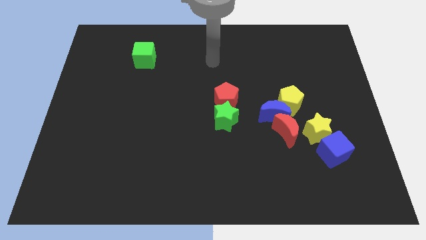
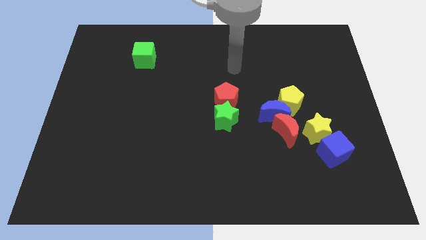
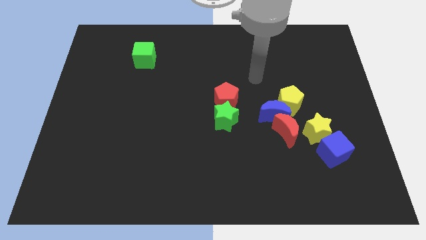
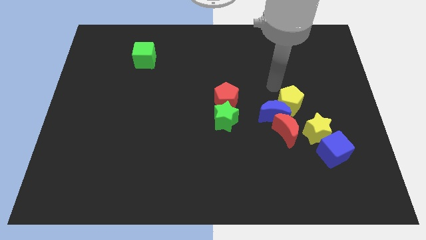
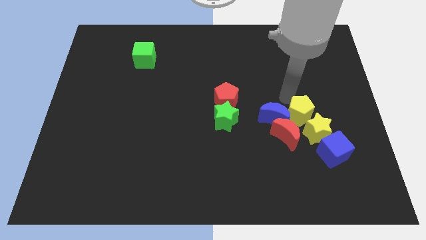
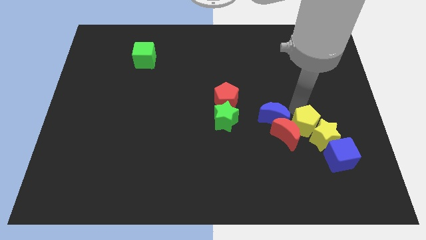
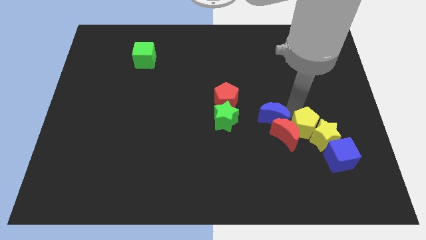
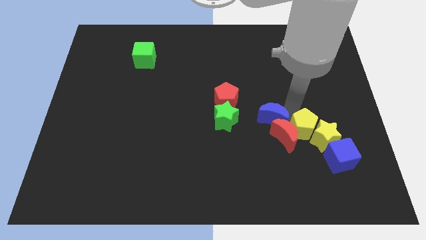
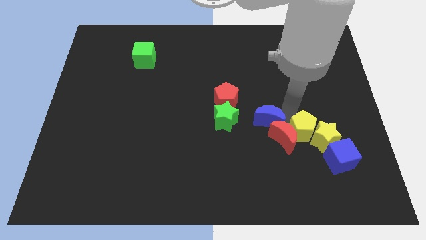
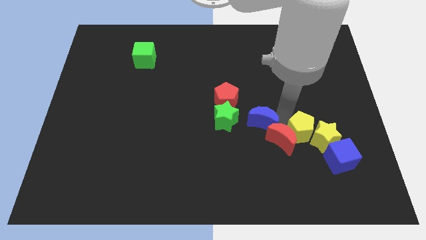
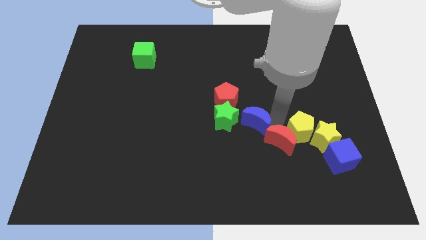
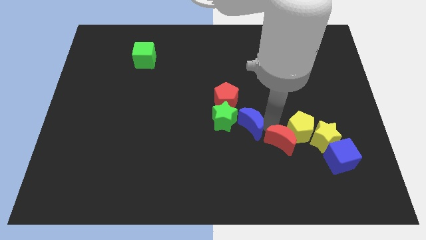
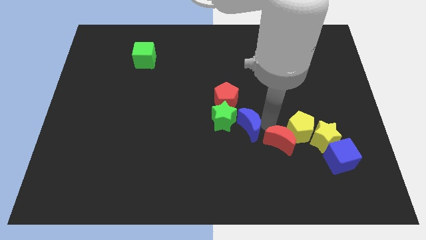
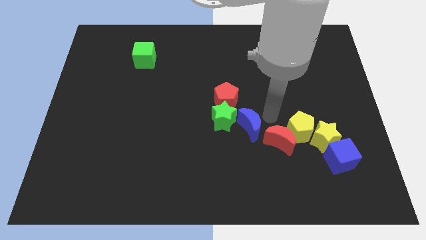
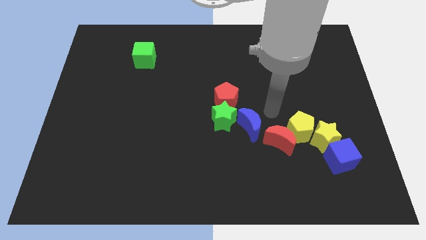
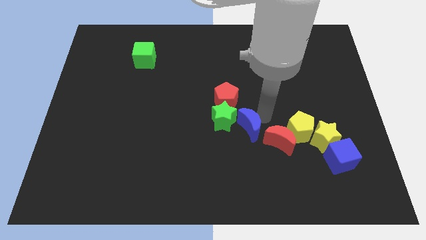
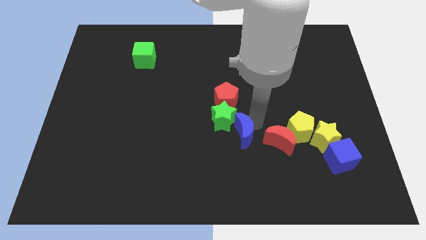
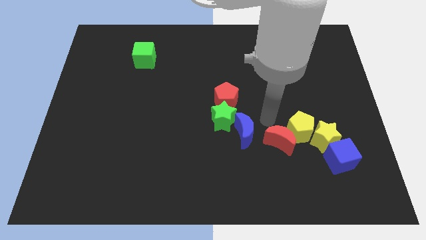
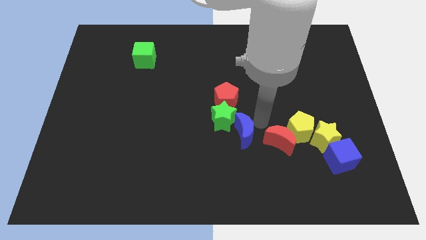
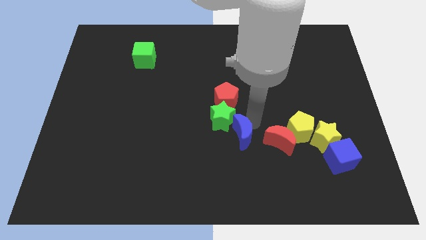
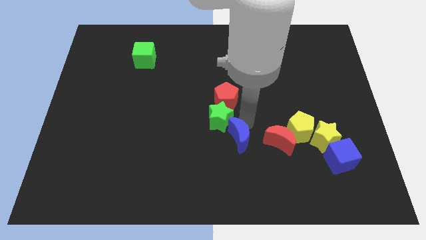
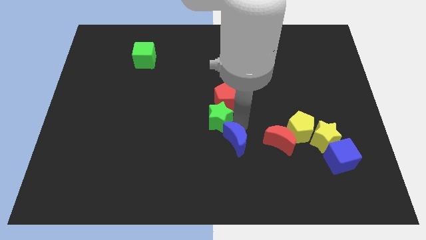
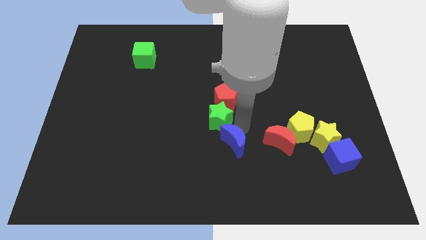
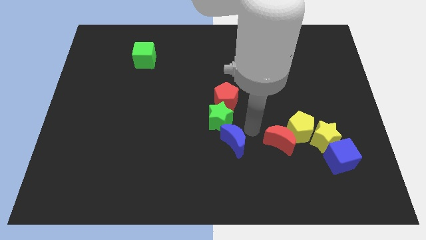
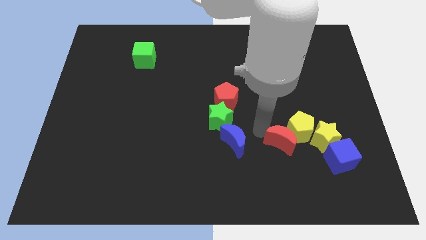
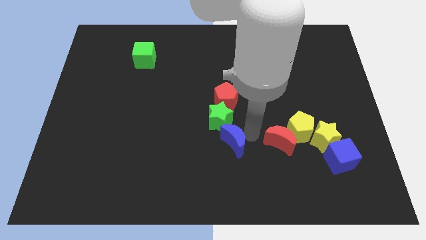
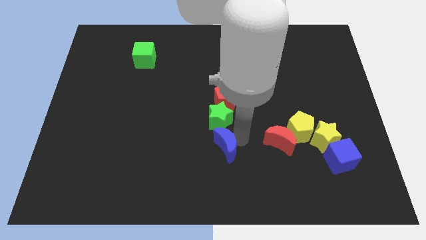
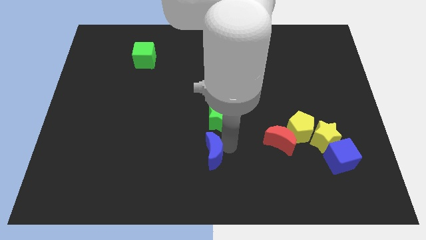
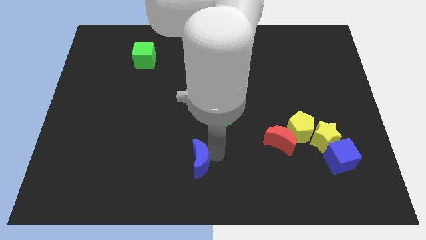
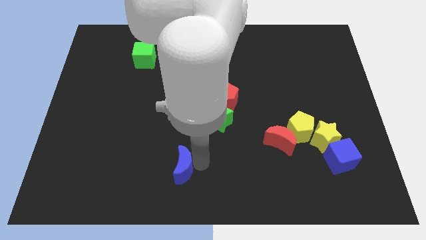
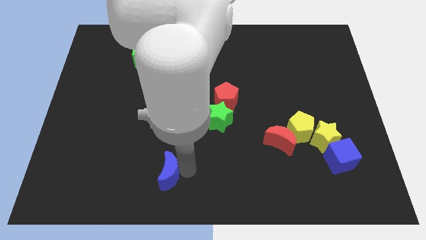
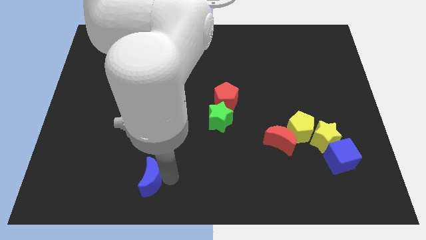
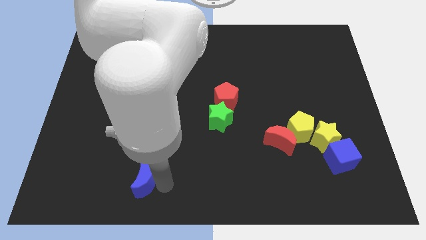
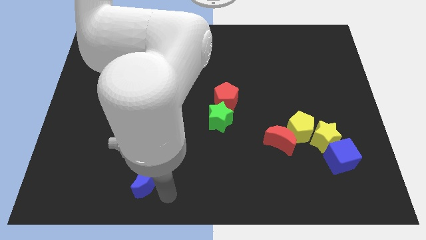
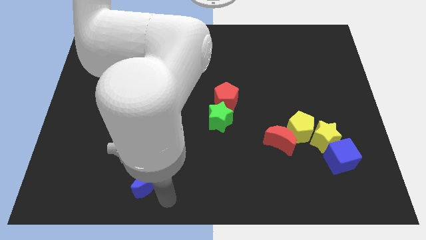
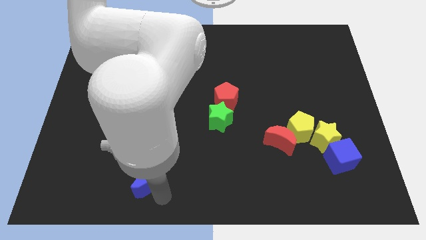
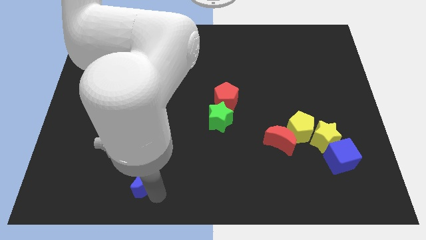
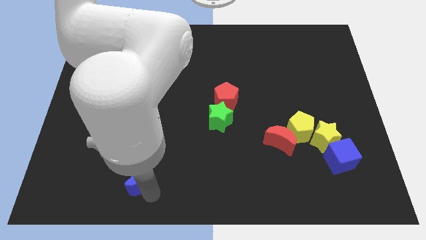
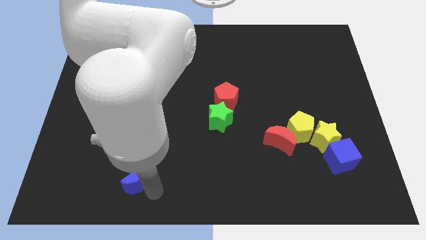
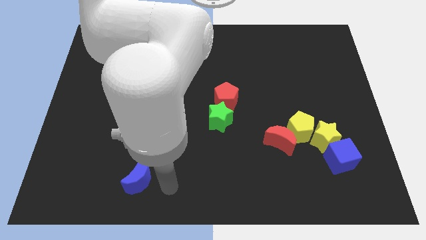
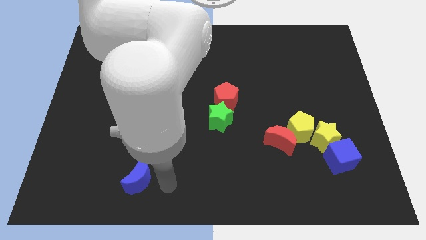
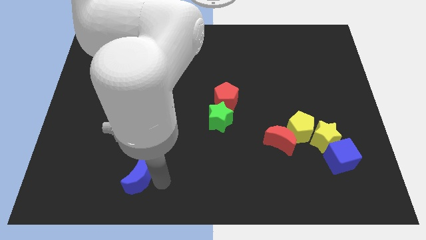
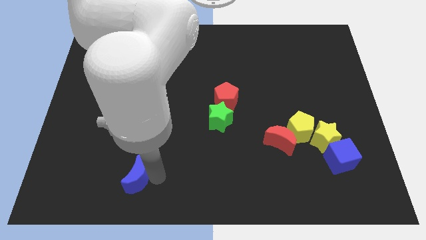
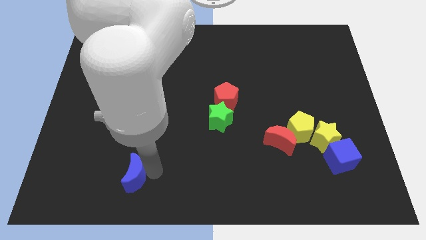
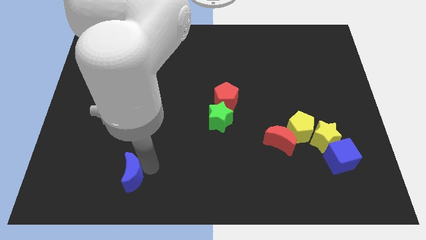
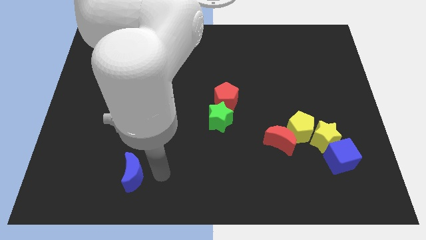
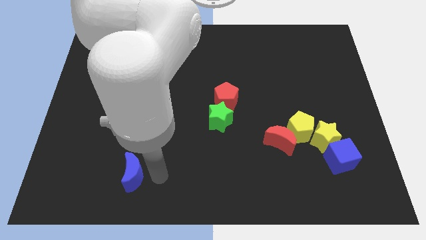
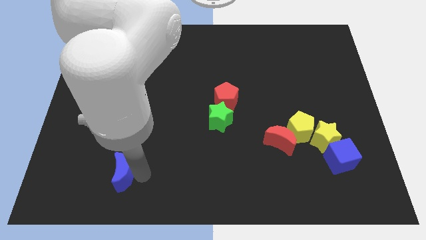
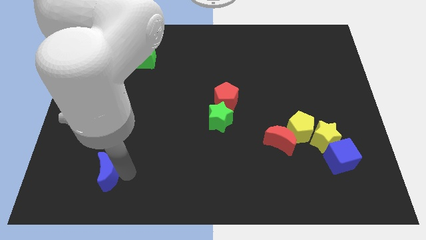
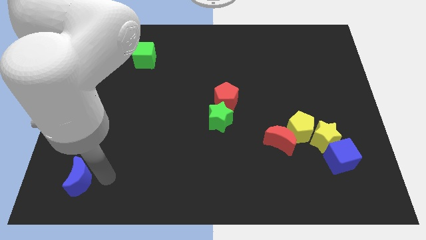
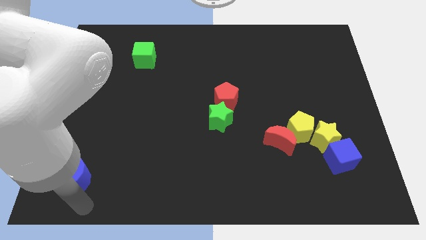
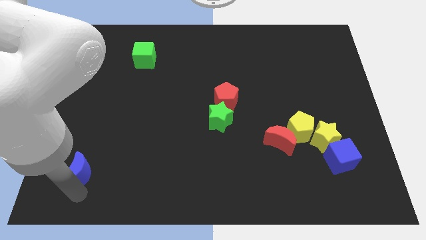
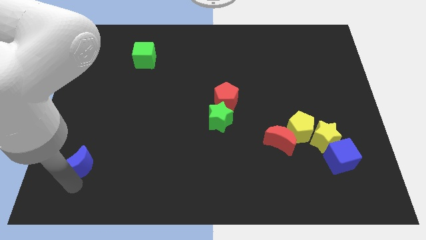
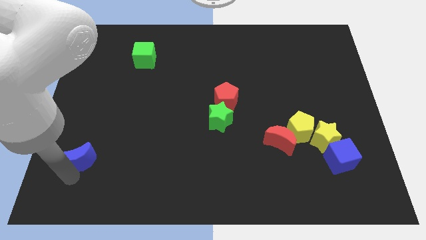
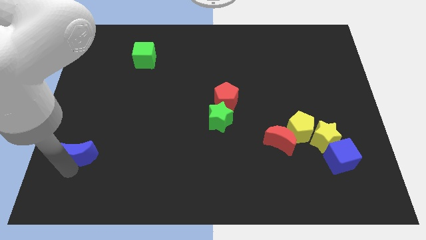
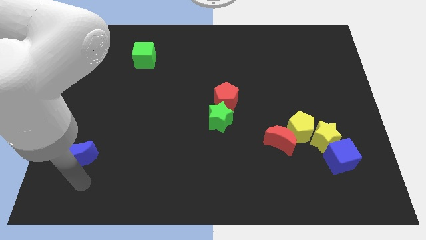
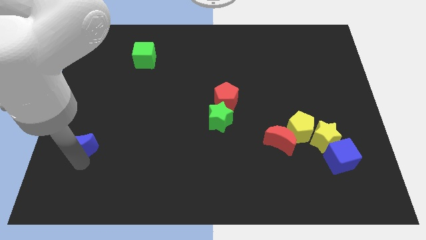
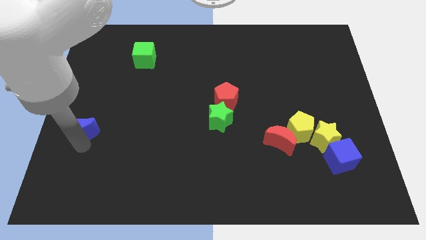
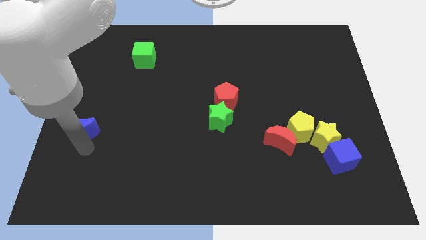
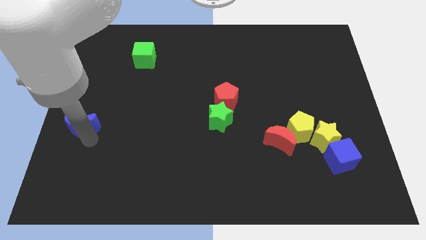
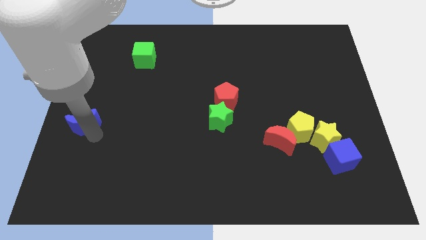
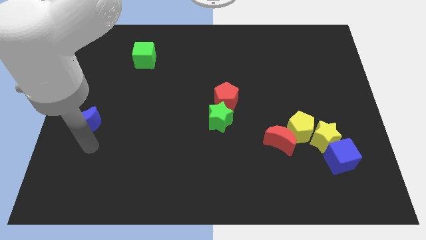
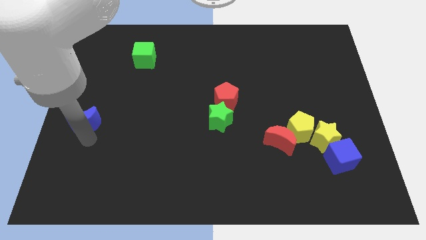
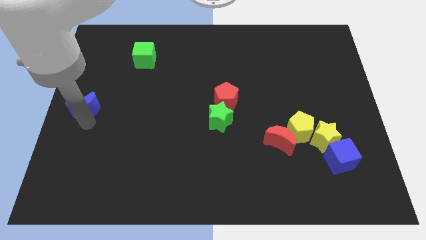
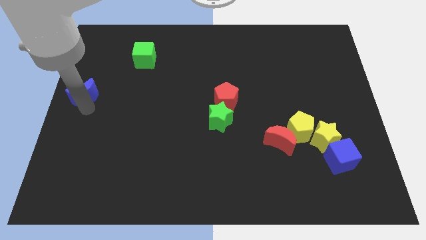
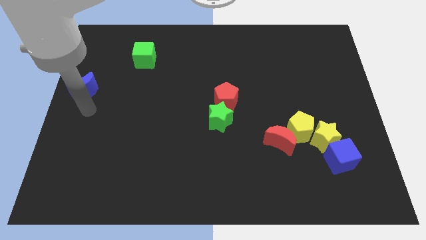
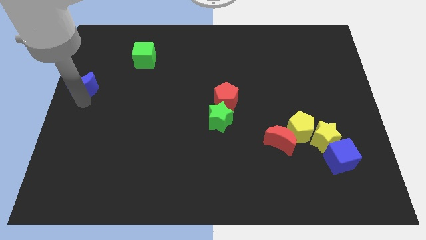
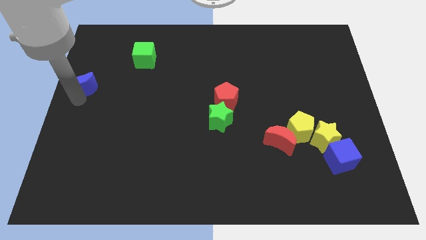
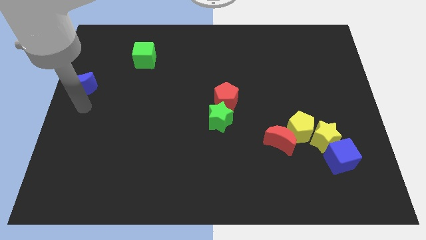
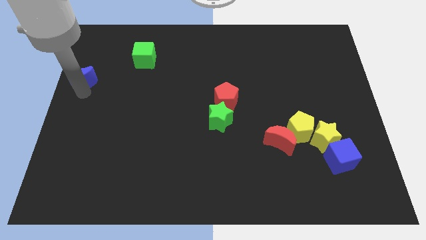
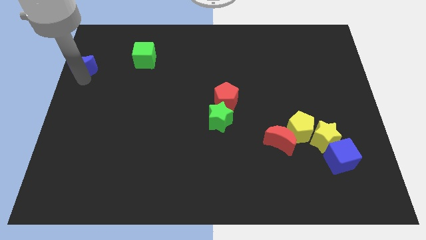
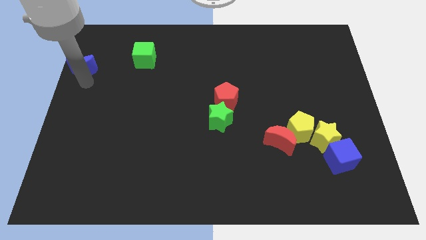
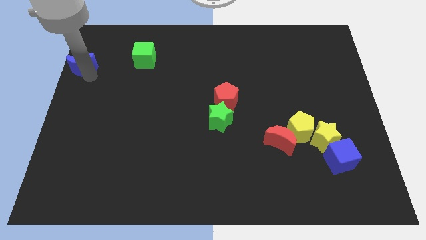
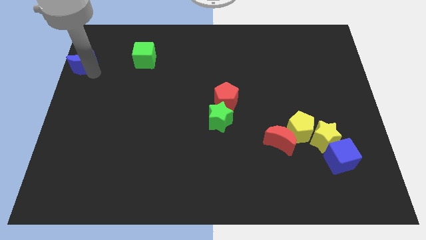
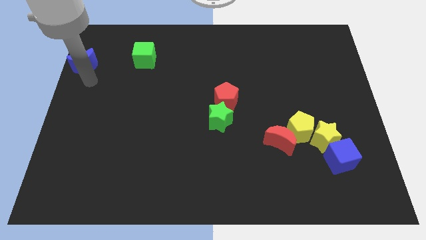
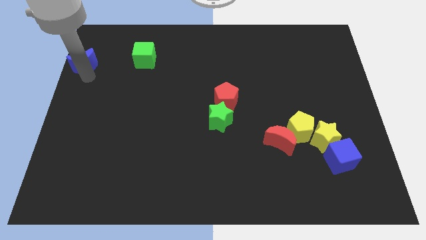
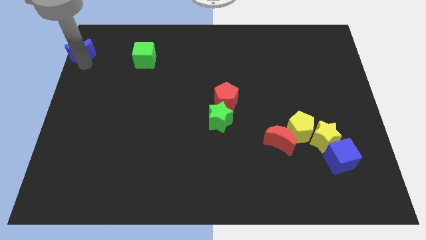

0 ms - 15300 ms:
slide the blue moon to the top left corner
